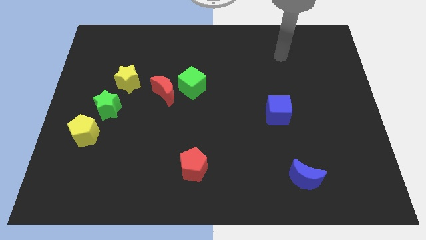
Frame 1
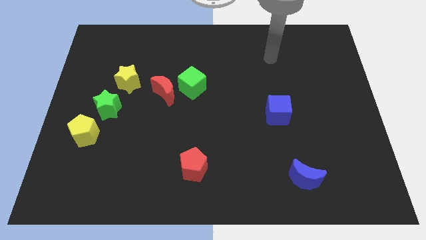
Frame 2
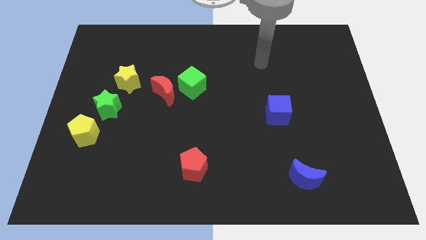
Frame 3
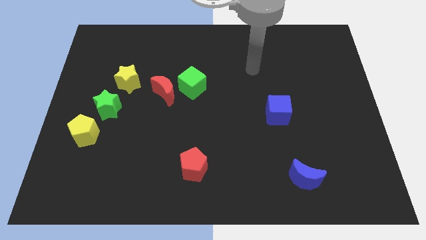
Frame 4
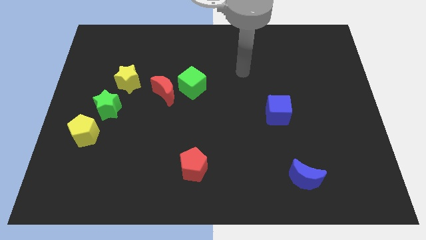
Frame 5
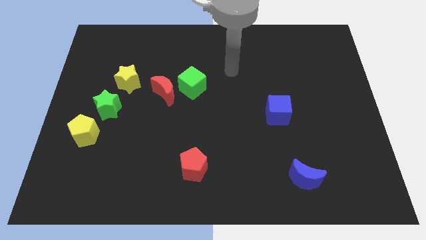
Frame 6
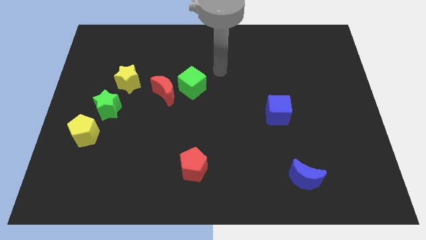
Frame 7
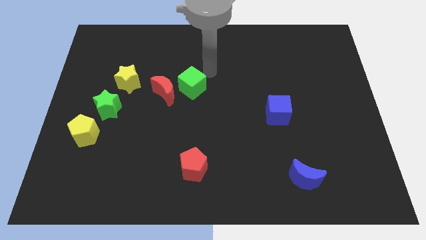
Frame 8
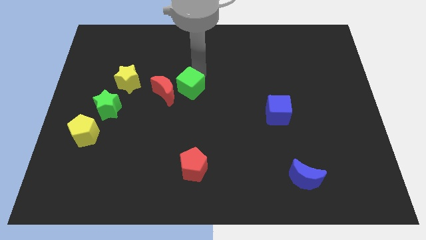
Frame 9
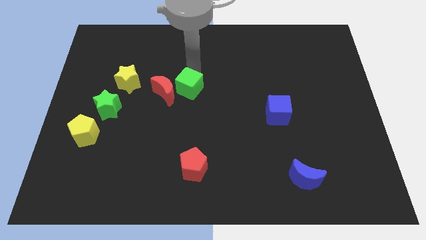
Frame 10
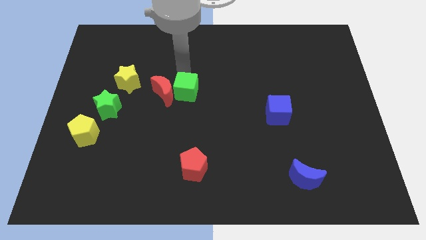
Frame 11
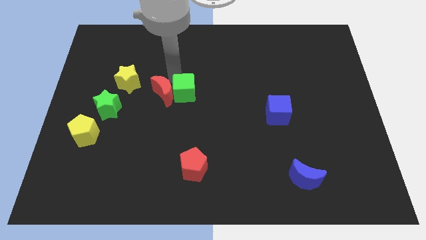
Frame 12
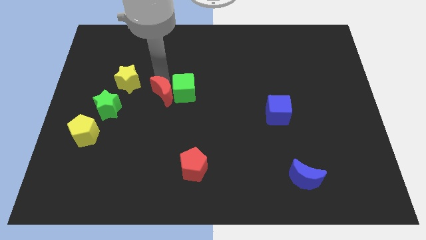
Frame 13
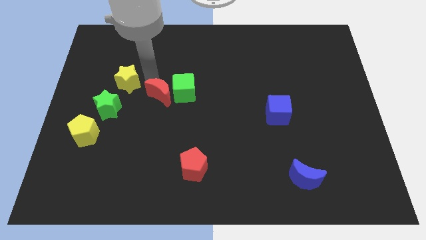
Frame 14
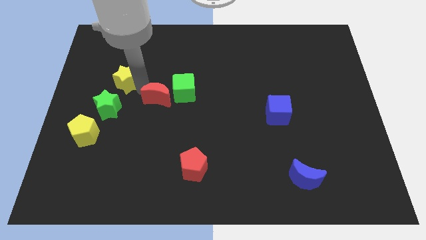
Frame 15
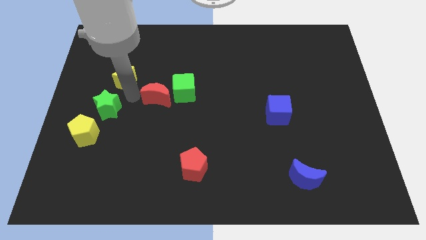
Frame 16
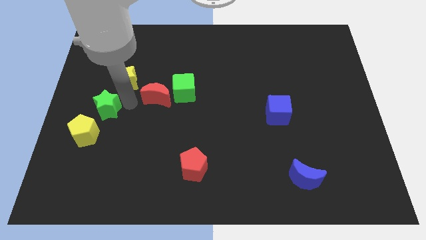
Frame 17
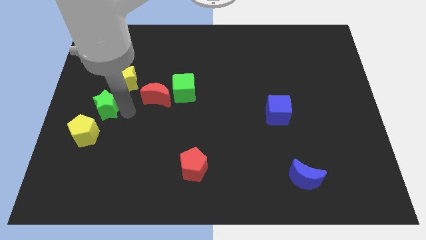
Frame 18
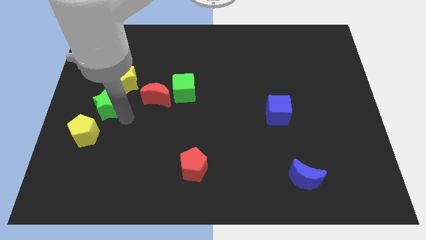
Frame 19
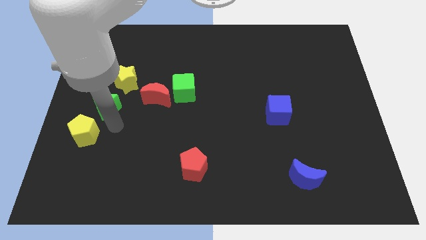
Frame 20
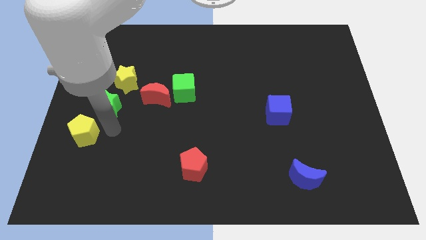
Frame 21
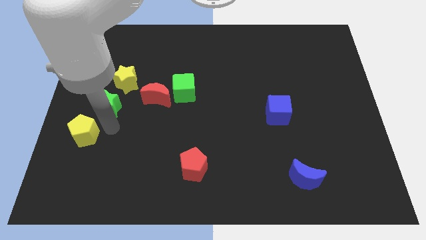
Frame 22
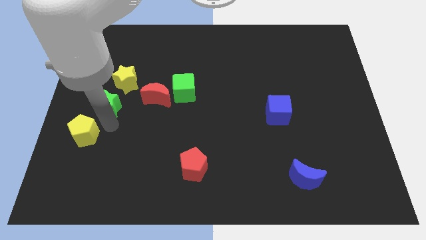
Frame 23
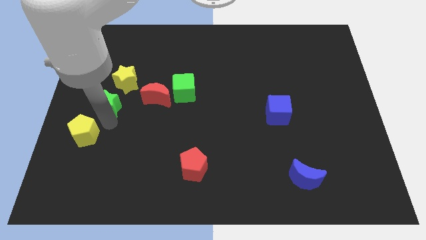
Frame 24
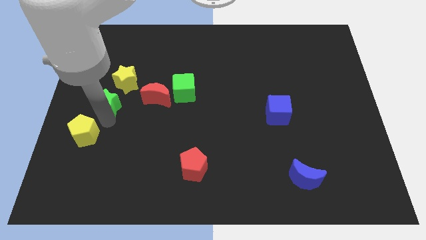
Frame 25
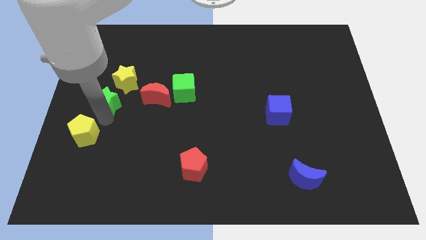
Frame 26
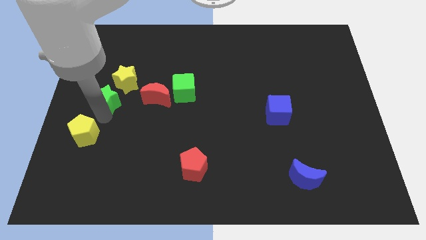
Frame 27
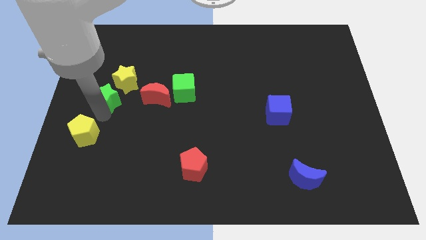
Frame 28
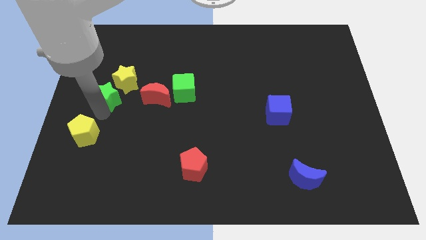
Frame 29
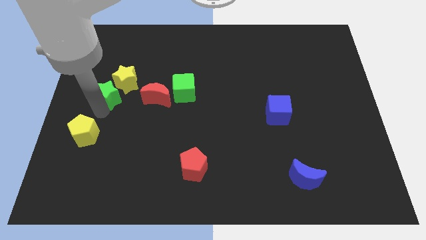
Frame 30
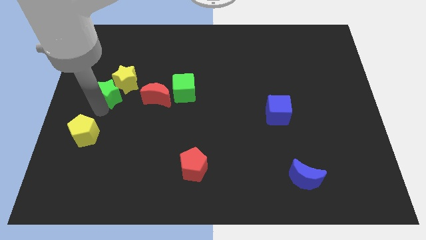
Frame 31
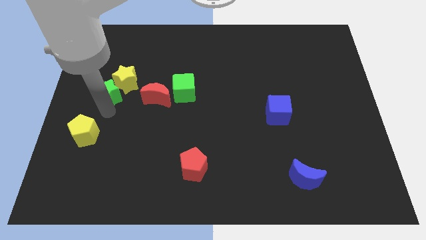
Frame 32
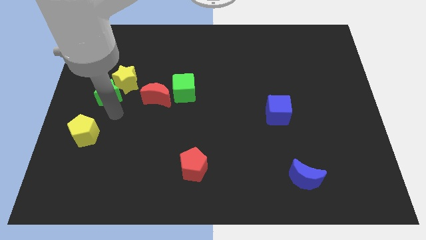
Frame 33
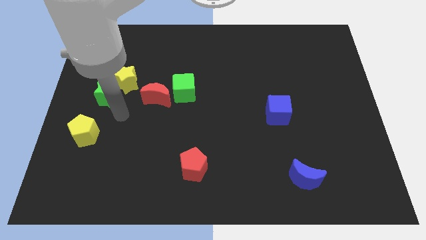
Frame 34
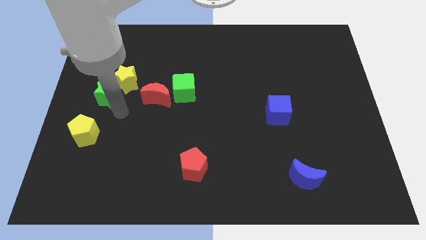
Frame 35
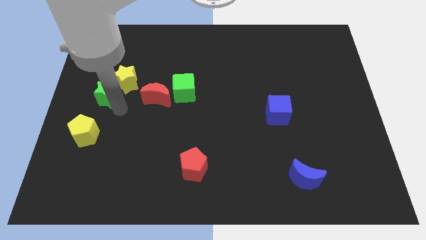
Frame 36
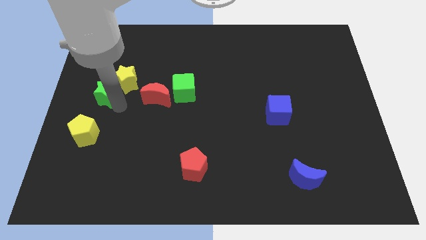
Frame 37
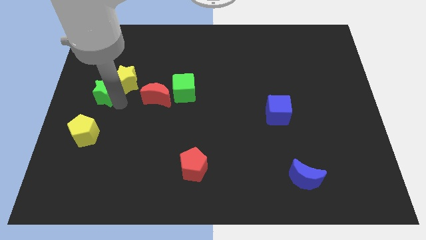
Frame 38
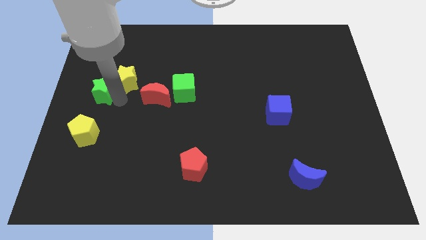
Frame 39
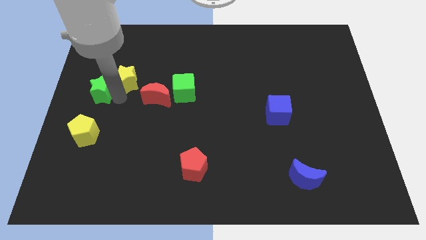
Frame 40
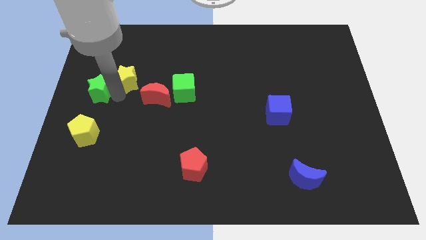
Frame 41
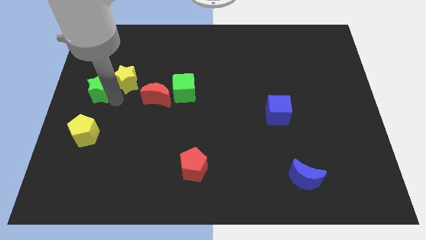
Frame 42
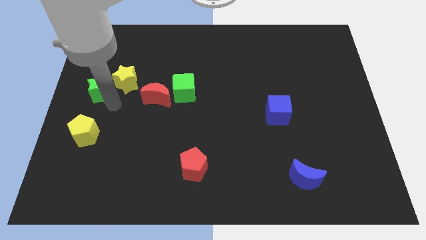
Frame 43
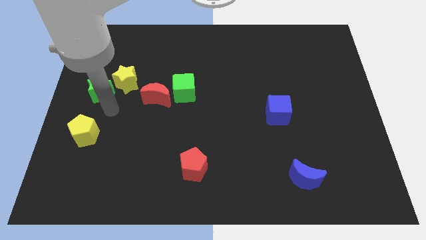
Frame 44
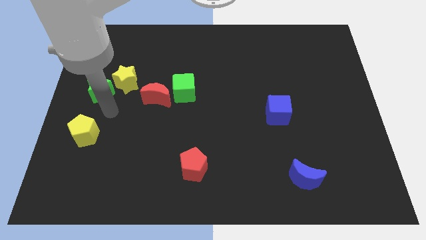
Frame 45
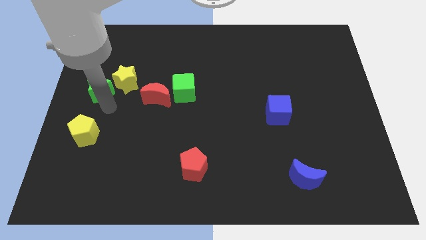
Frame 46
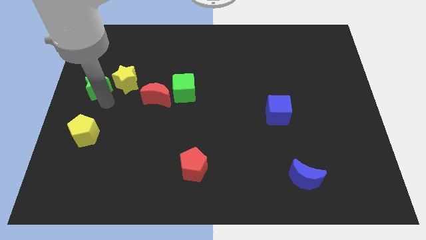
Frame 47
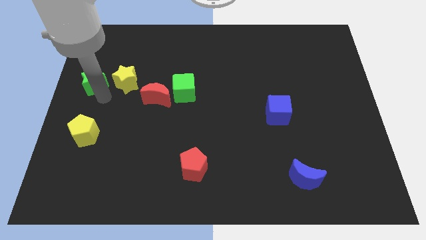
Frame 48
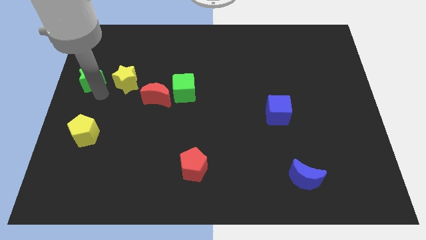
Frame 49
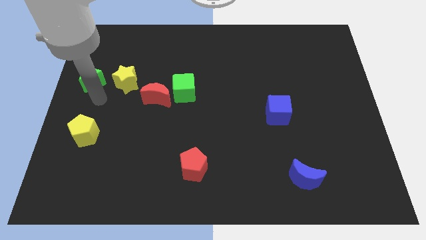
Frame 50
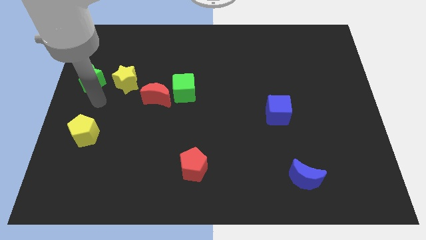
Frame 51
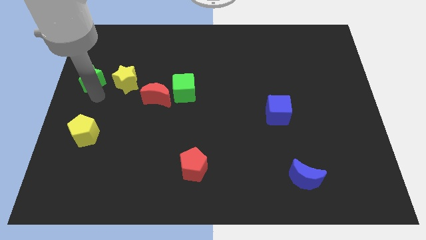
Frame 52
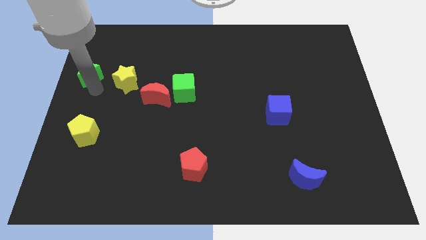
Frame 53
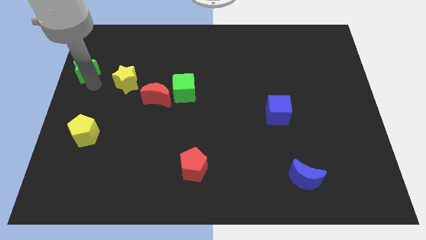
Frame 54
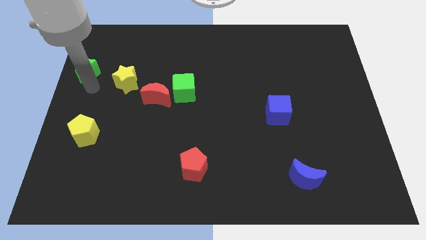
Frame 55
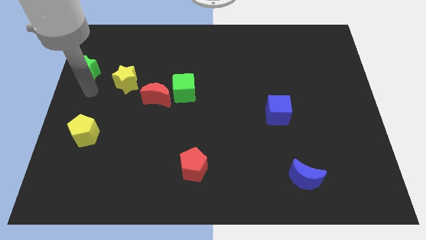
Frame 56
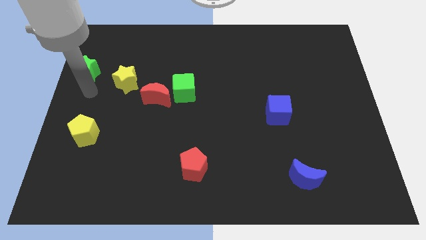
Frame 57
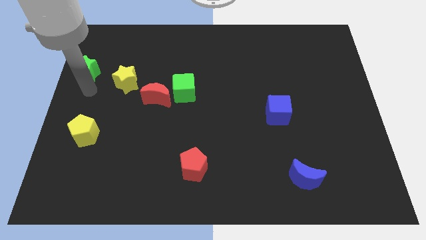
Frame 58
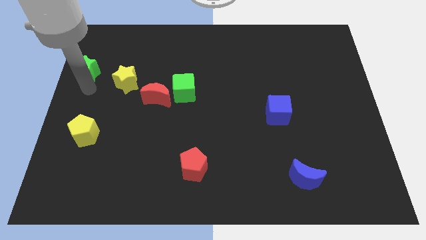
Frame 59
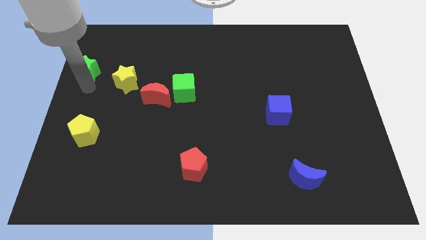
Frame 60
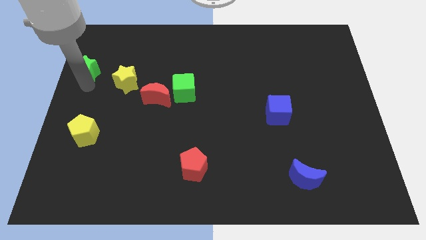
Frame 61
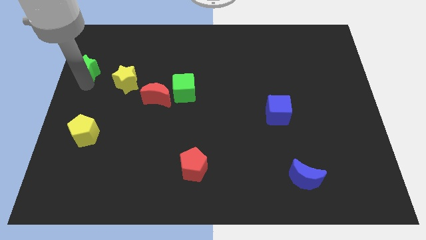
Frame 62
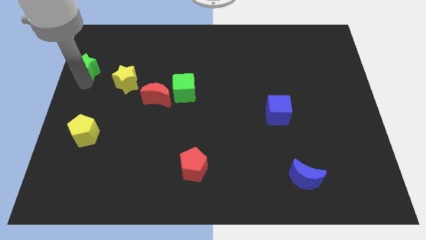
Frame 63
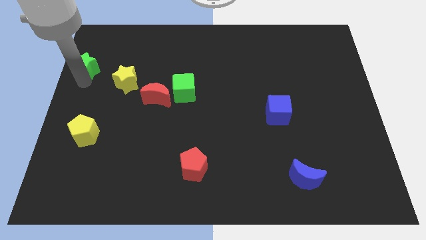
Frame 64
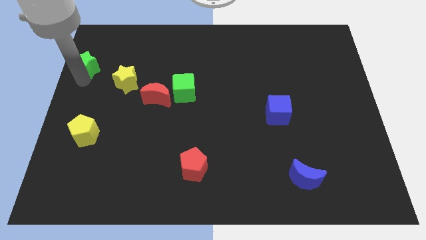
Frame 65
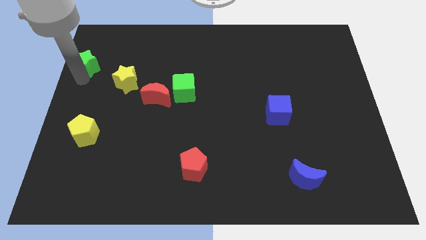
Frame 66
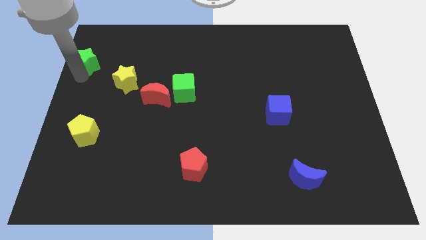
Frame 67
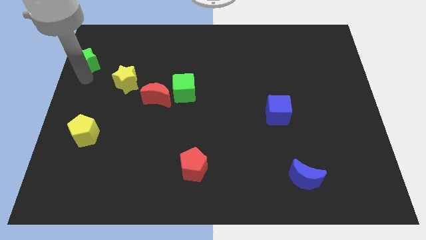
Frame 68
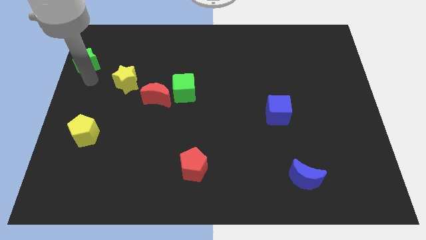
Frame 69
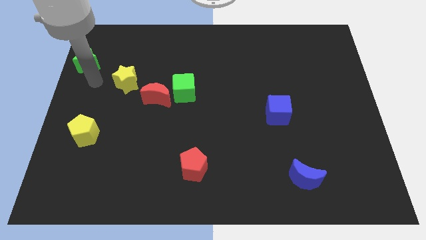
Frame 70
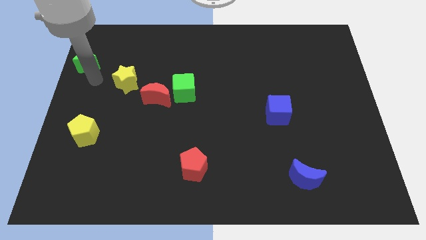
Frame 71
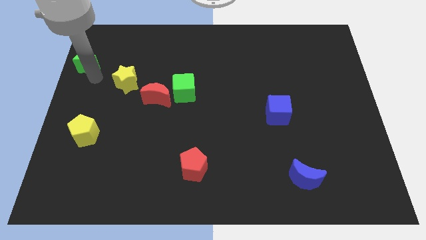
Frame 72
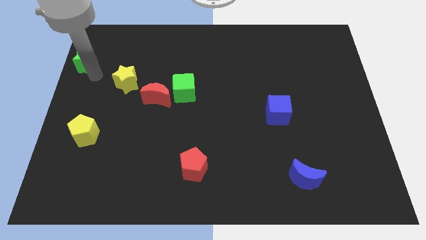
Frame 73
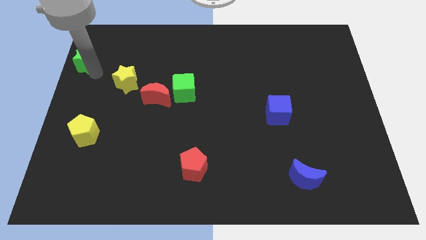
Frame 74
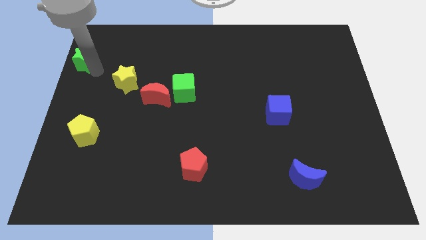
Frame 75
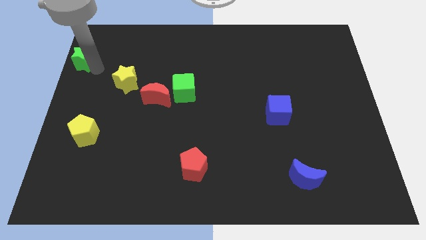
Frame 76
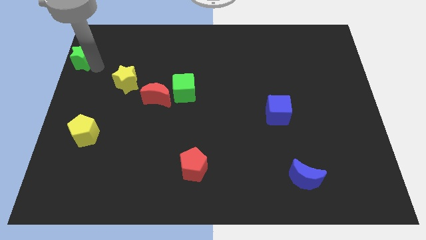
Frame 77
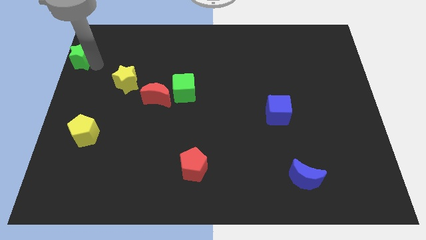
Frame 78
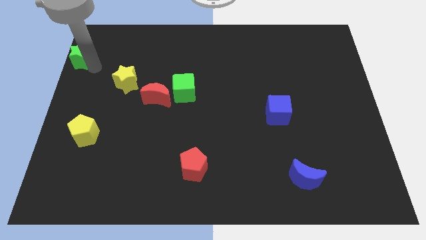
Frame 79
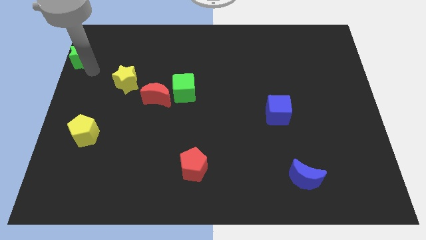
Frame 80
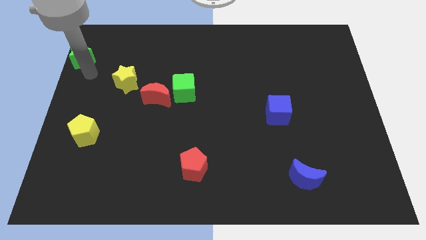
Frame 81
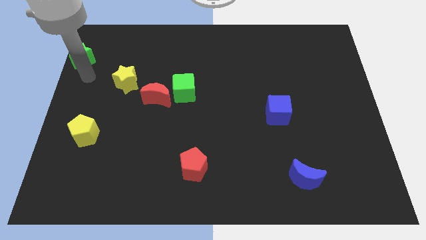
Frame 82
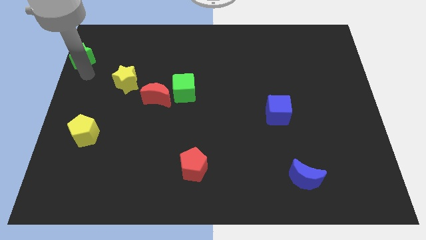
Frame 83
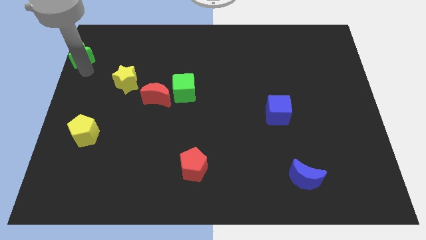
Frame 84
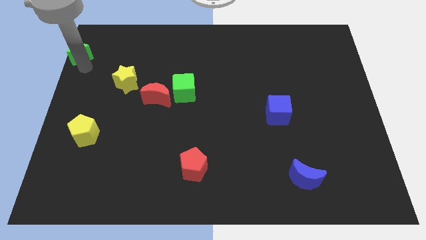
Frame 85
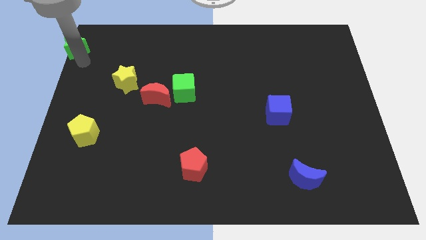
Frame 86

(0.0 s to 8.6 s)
put the green star to the top left of the board
